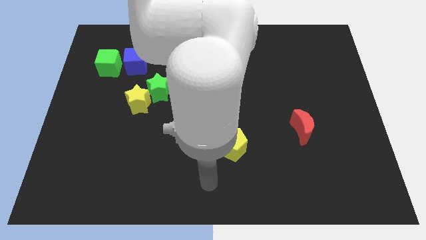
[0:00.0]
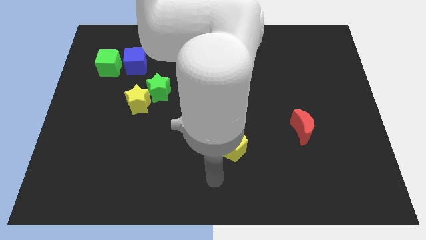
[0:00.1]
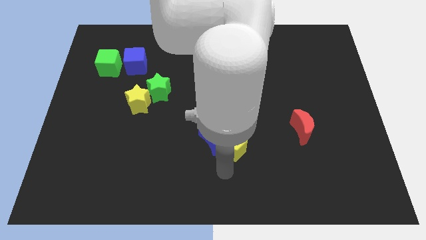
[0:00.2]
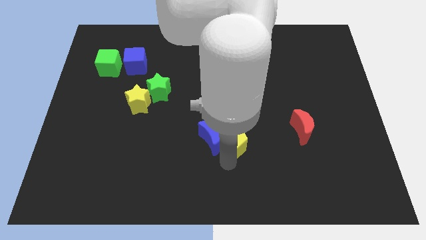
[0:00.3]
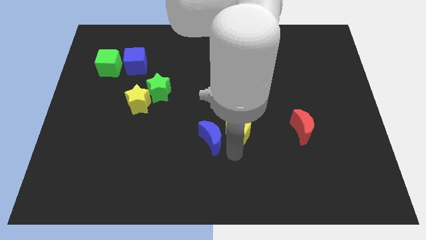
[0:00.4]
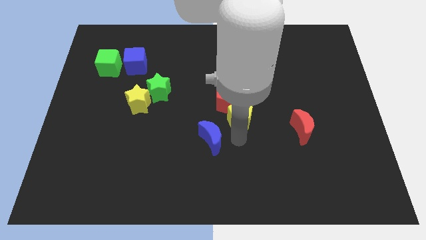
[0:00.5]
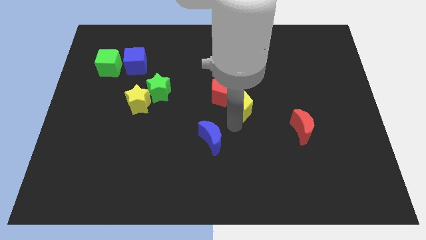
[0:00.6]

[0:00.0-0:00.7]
pull the blue moon apart from the yellow pentagon

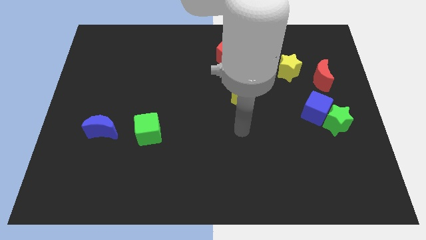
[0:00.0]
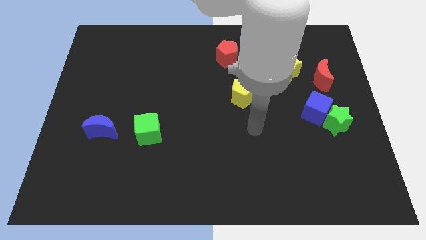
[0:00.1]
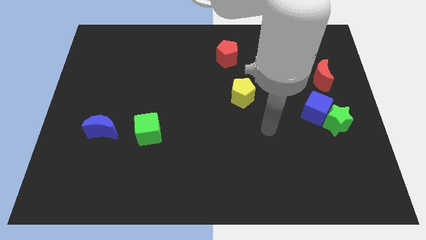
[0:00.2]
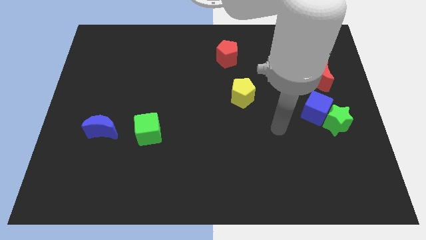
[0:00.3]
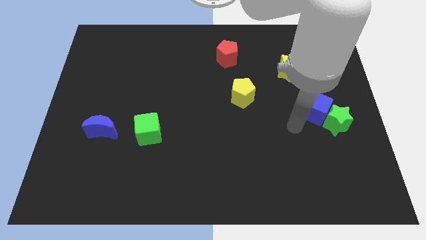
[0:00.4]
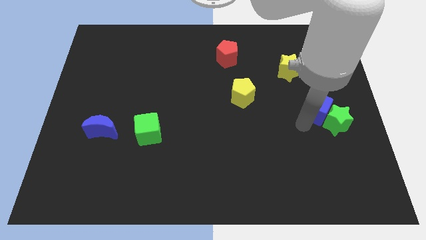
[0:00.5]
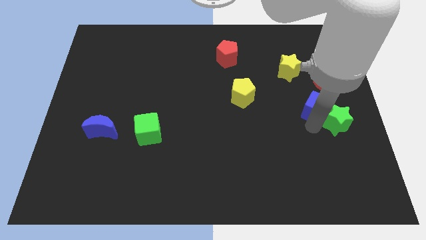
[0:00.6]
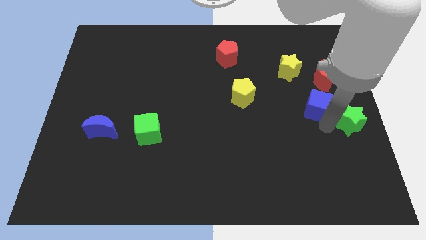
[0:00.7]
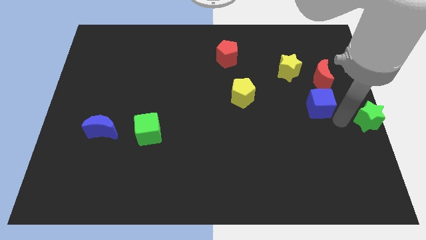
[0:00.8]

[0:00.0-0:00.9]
pull the blue cube apart from the green star

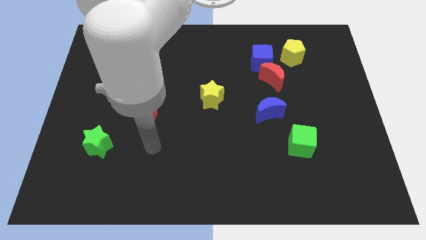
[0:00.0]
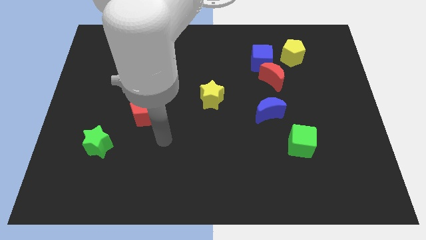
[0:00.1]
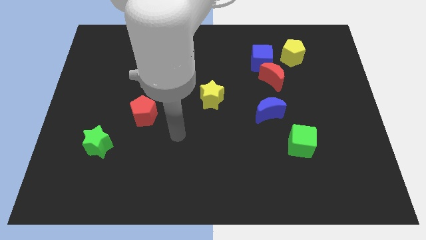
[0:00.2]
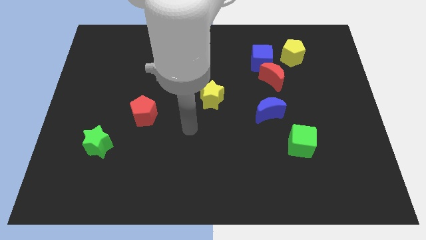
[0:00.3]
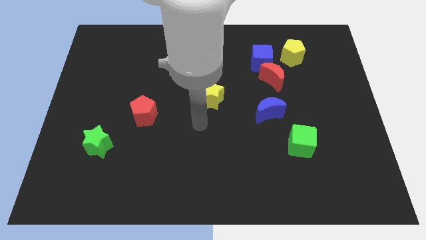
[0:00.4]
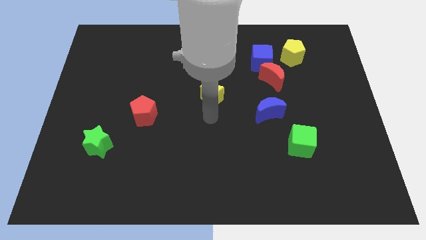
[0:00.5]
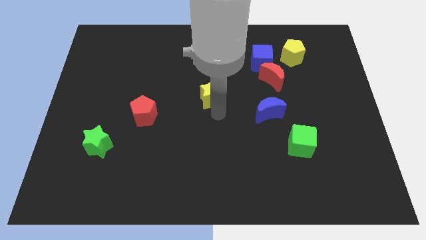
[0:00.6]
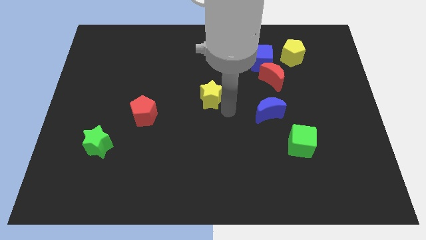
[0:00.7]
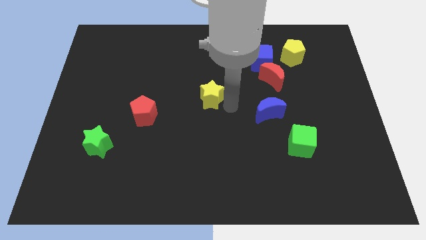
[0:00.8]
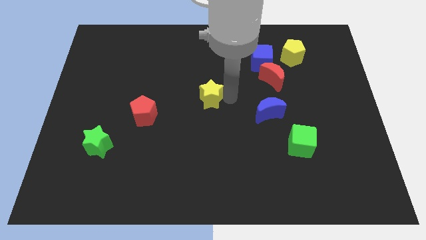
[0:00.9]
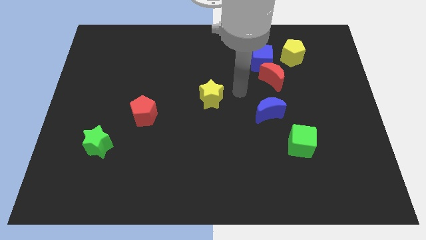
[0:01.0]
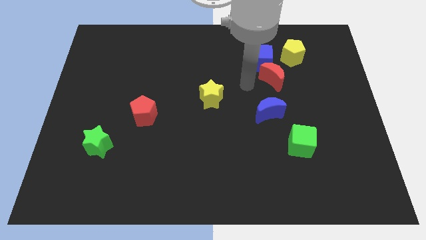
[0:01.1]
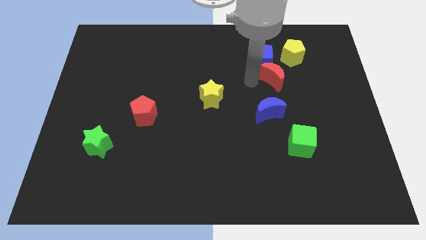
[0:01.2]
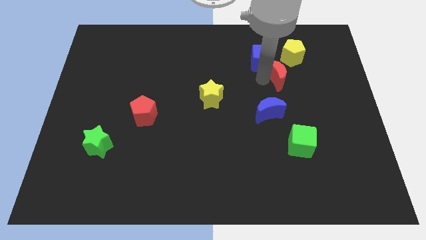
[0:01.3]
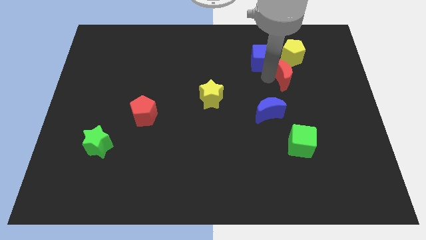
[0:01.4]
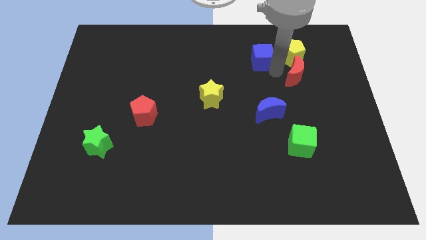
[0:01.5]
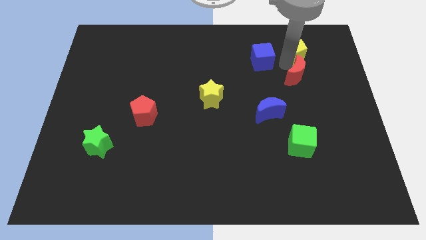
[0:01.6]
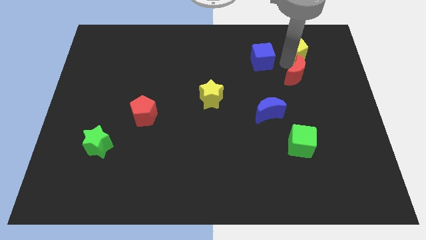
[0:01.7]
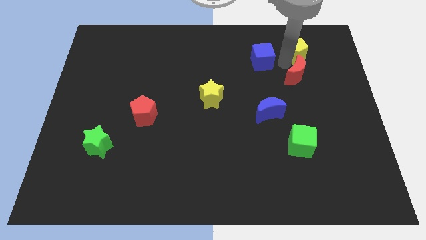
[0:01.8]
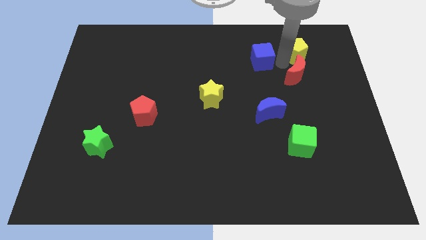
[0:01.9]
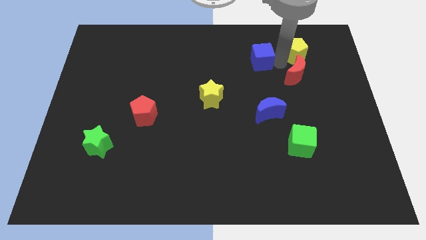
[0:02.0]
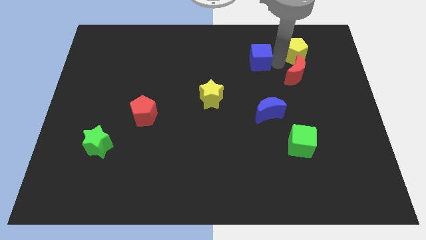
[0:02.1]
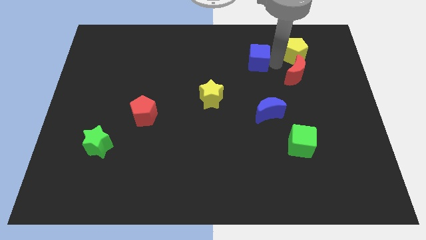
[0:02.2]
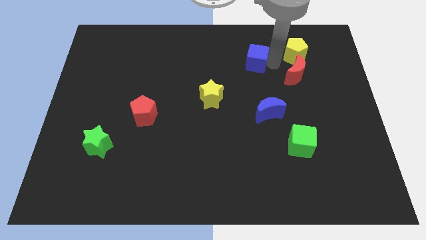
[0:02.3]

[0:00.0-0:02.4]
separate the blue cube from the red moon and yellow pentagon

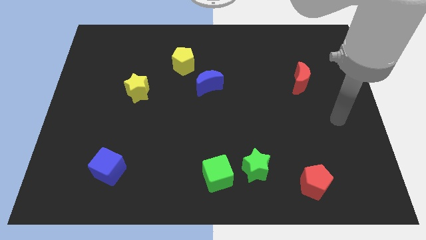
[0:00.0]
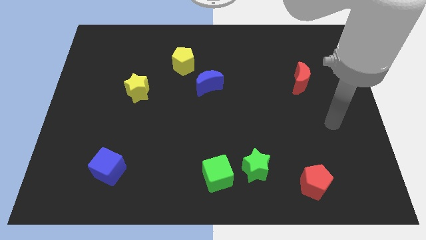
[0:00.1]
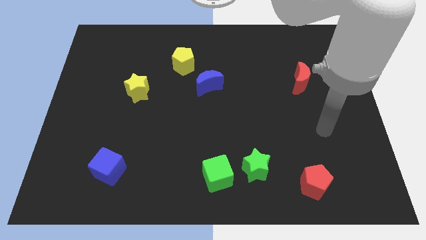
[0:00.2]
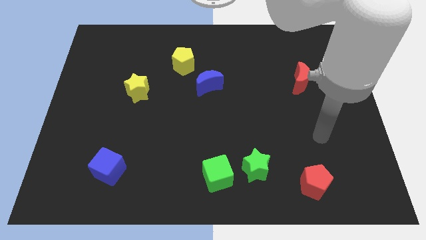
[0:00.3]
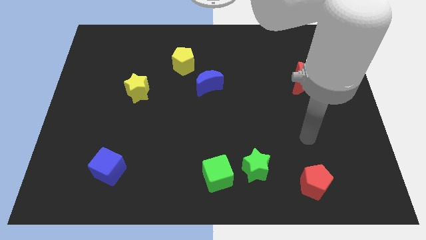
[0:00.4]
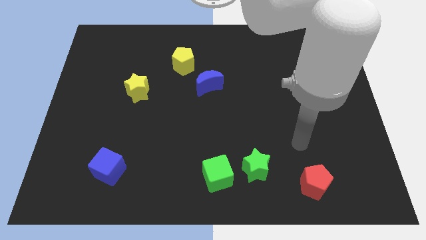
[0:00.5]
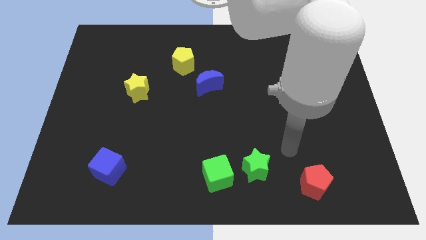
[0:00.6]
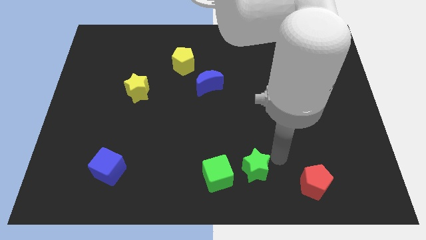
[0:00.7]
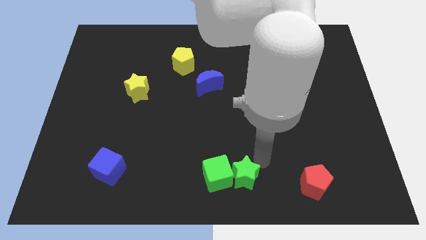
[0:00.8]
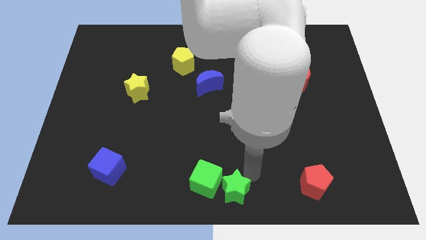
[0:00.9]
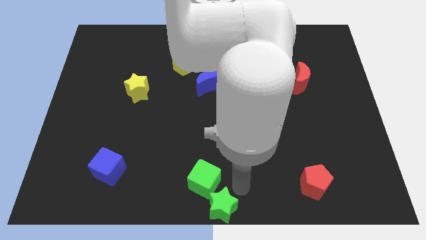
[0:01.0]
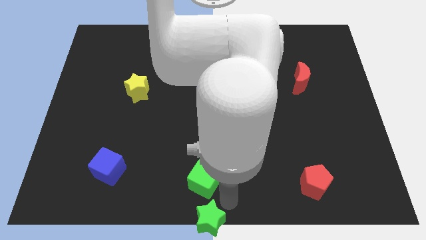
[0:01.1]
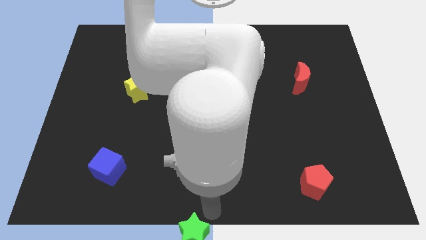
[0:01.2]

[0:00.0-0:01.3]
move the green cube away from the green star

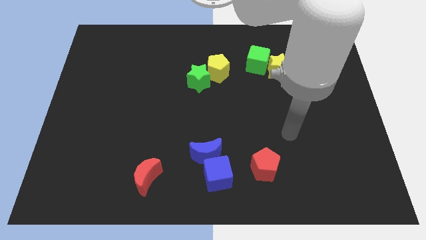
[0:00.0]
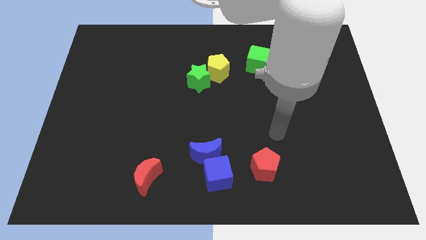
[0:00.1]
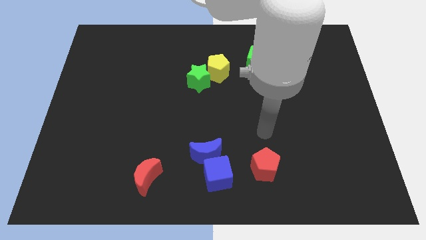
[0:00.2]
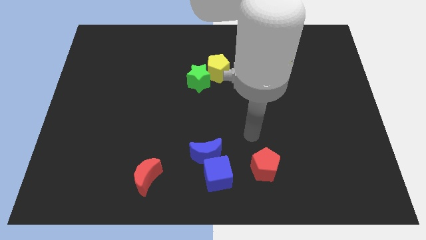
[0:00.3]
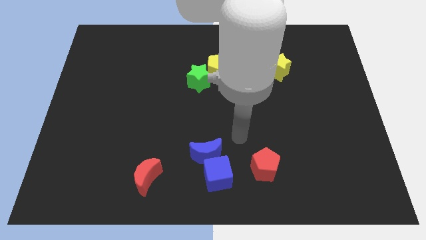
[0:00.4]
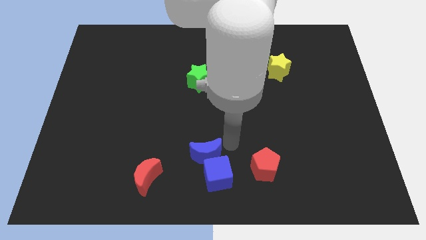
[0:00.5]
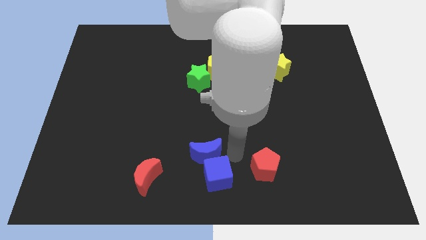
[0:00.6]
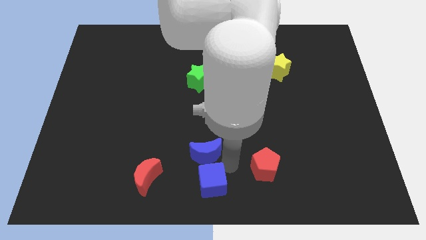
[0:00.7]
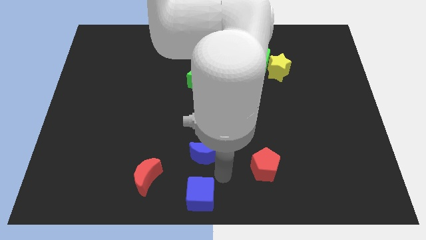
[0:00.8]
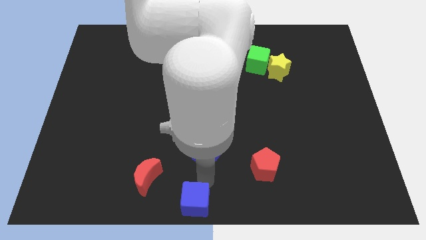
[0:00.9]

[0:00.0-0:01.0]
move the blue moon away from the blue cube

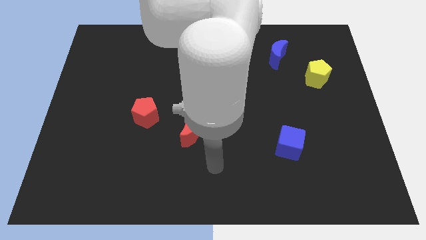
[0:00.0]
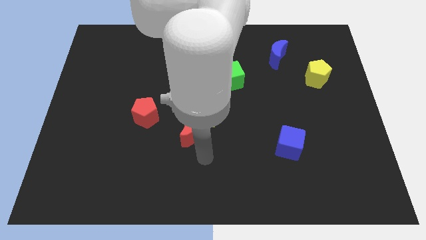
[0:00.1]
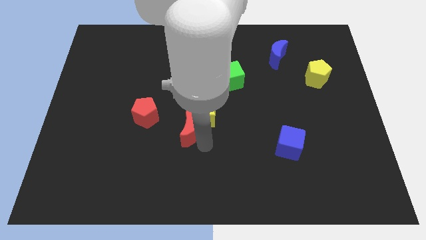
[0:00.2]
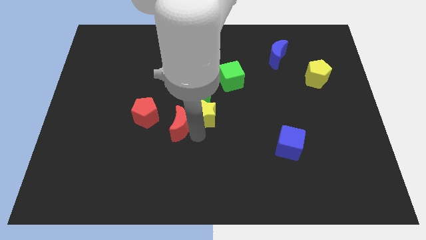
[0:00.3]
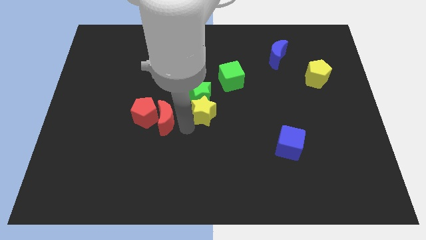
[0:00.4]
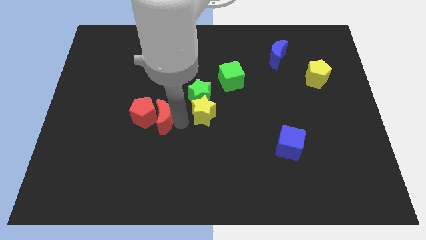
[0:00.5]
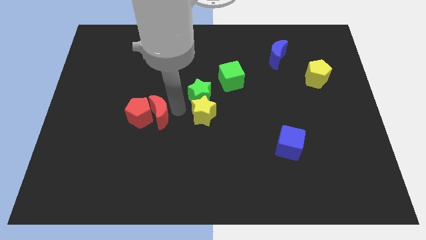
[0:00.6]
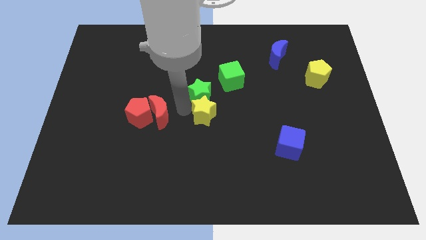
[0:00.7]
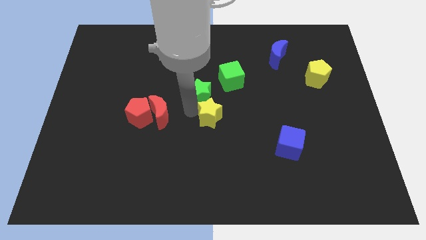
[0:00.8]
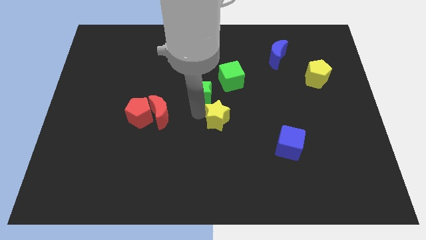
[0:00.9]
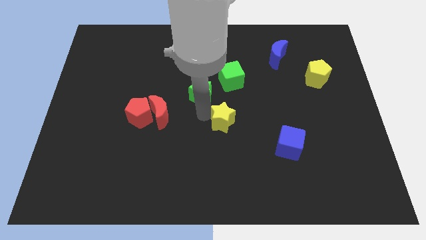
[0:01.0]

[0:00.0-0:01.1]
separate the yellow star from the green star and red moon

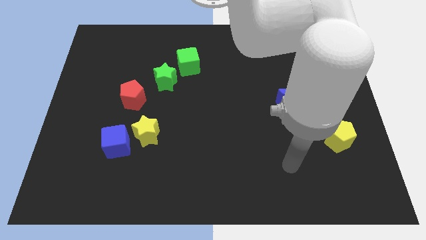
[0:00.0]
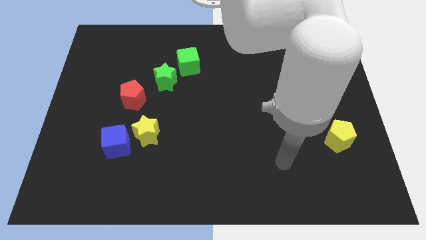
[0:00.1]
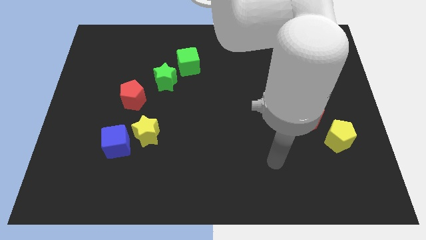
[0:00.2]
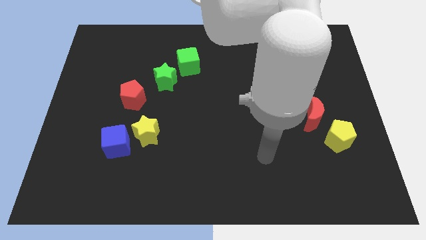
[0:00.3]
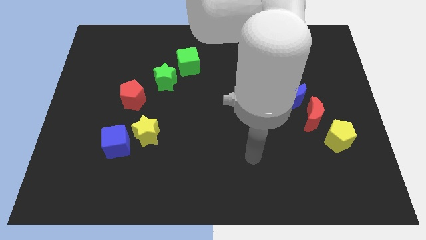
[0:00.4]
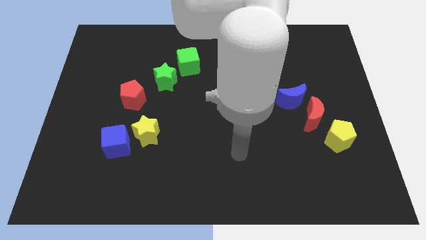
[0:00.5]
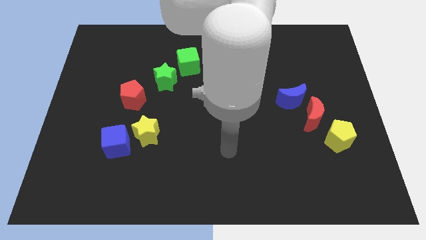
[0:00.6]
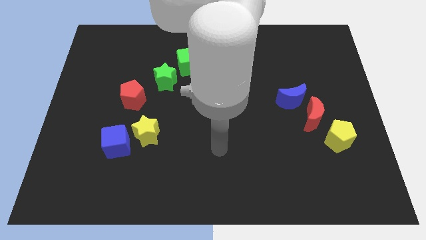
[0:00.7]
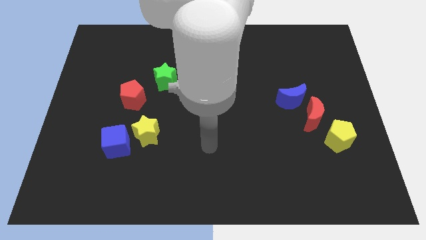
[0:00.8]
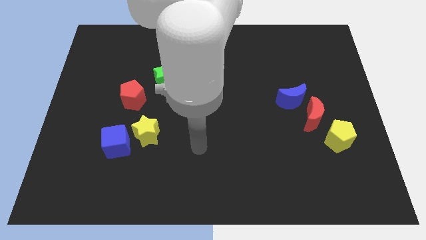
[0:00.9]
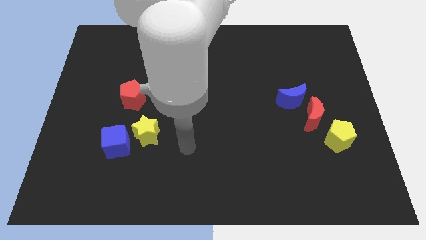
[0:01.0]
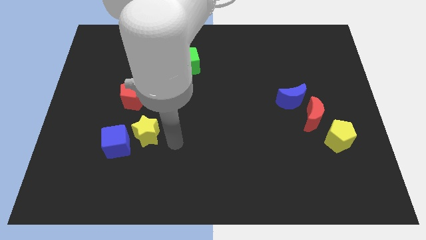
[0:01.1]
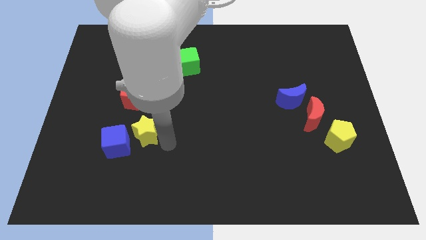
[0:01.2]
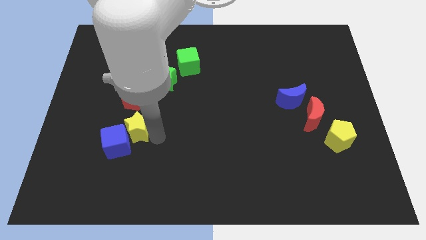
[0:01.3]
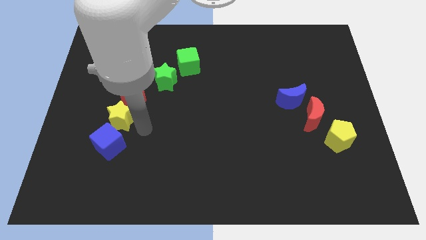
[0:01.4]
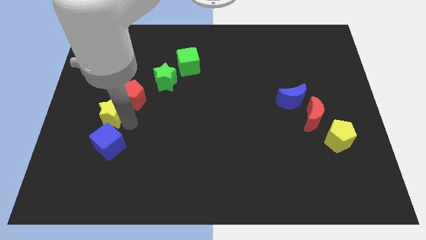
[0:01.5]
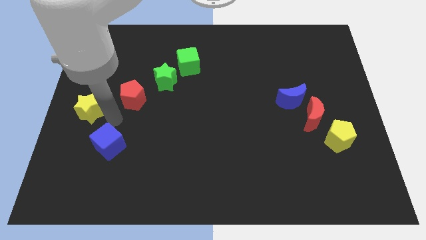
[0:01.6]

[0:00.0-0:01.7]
separate the blue cube from the yellow star
